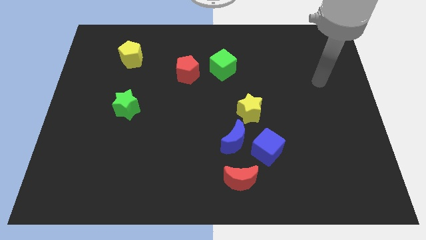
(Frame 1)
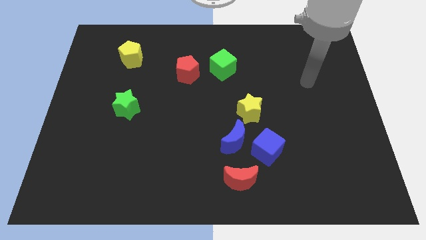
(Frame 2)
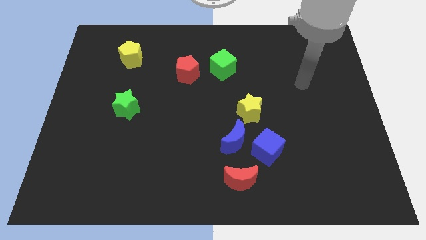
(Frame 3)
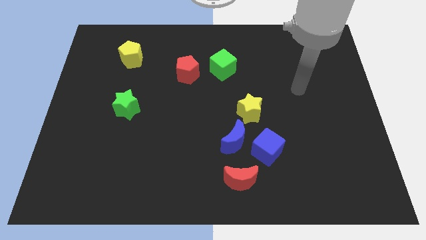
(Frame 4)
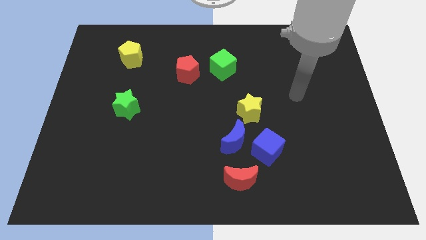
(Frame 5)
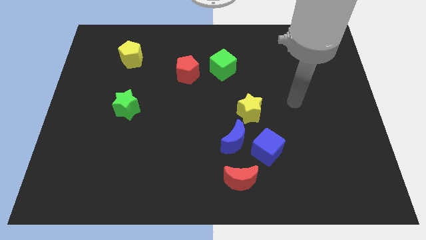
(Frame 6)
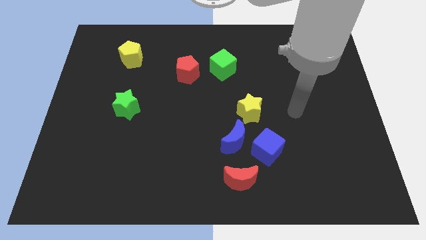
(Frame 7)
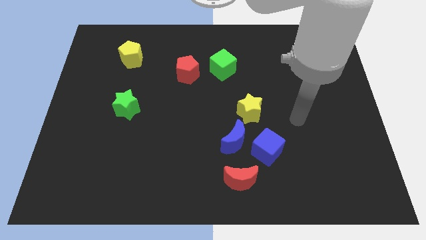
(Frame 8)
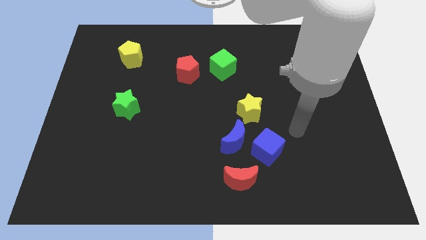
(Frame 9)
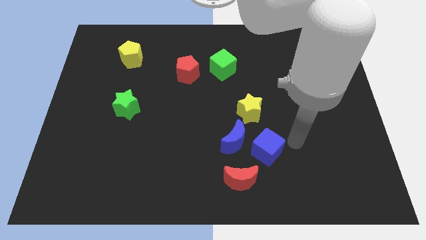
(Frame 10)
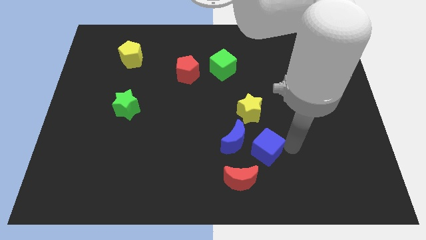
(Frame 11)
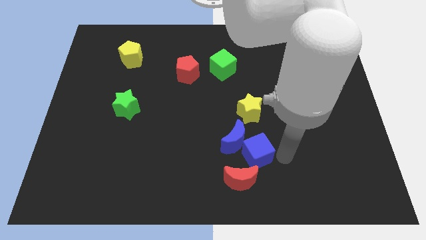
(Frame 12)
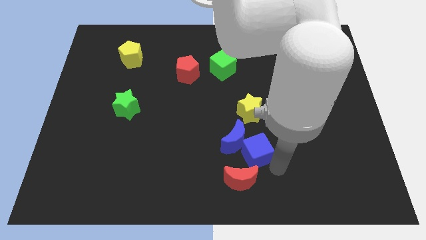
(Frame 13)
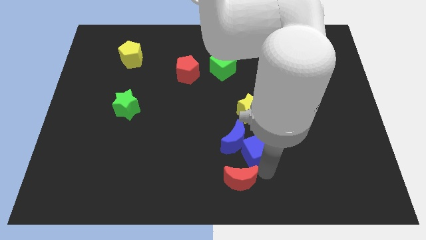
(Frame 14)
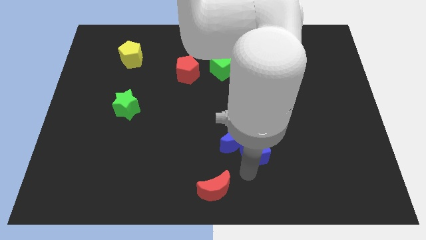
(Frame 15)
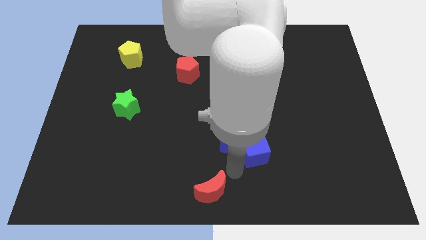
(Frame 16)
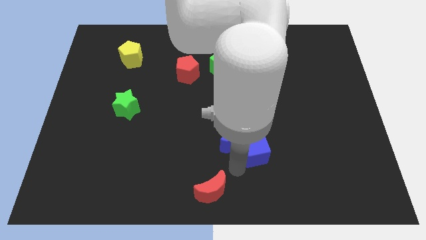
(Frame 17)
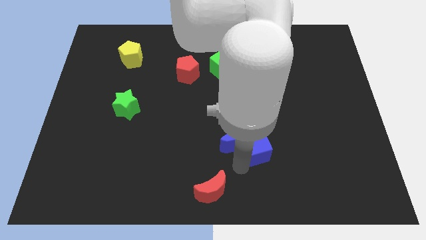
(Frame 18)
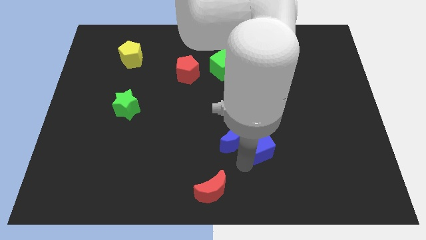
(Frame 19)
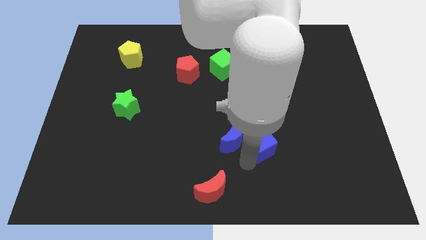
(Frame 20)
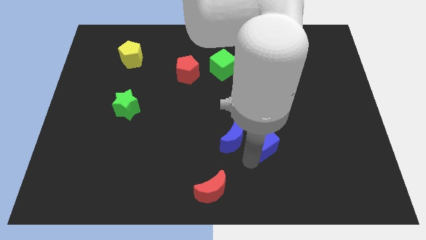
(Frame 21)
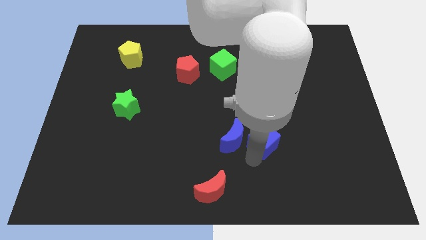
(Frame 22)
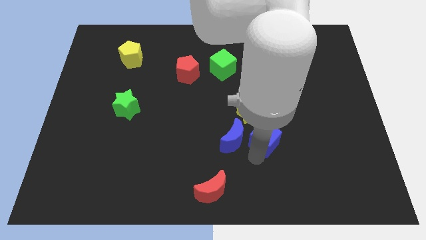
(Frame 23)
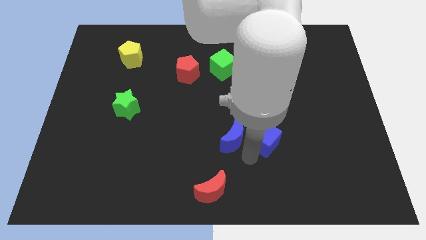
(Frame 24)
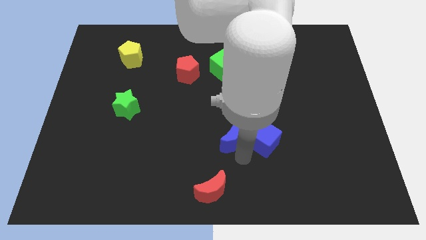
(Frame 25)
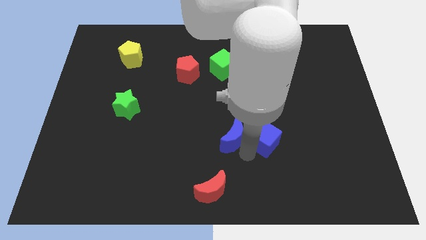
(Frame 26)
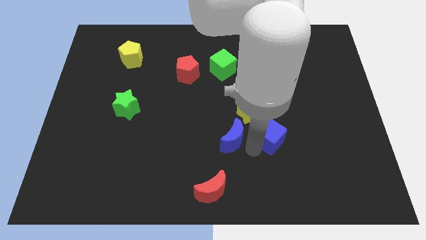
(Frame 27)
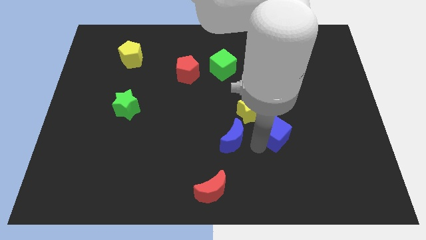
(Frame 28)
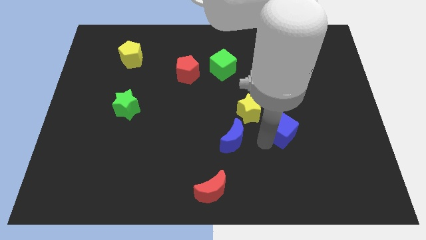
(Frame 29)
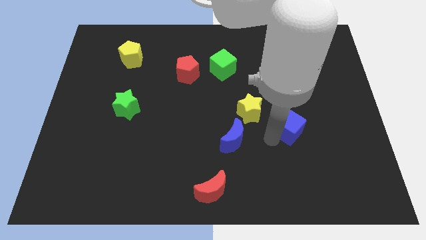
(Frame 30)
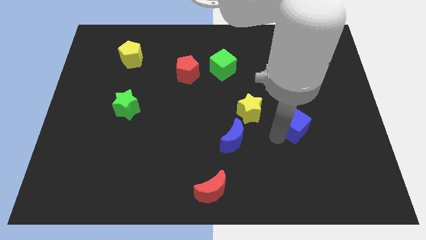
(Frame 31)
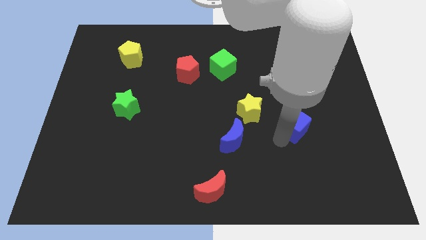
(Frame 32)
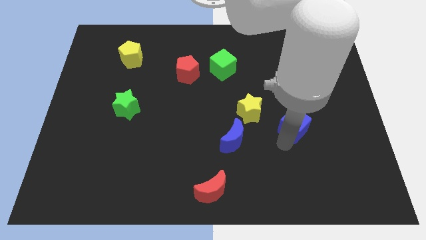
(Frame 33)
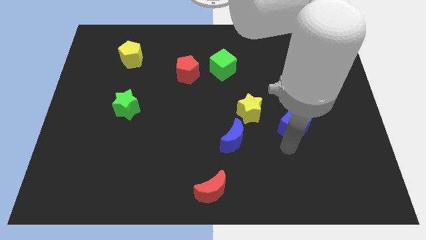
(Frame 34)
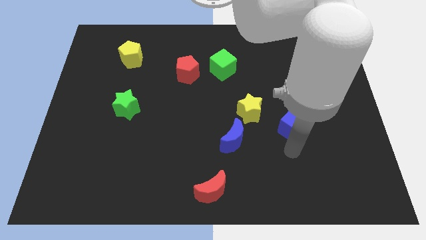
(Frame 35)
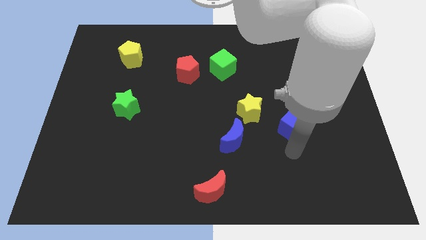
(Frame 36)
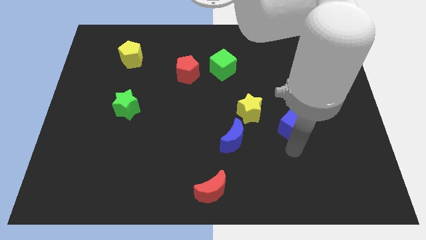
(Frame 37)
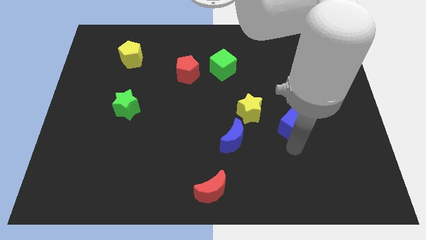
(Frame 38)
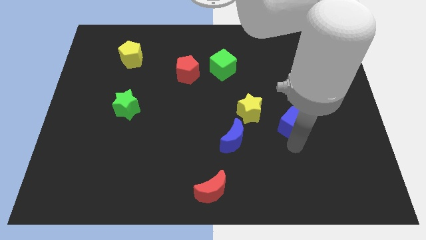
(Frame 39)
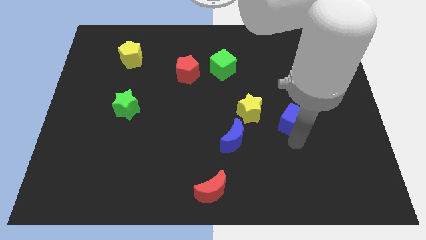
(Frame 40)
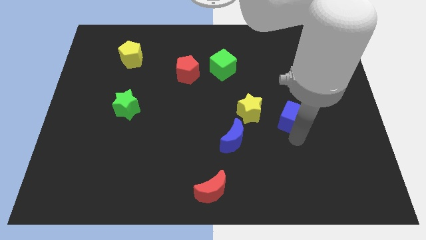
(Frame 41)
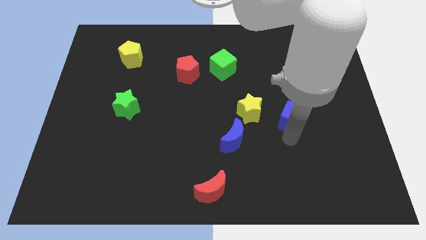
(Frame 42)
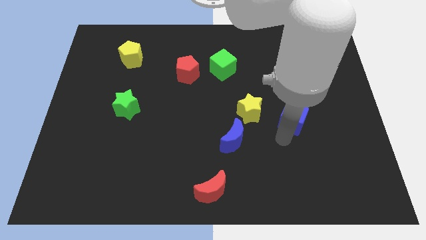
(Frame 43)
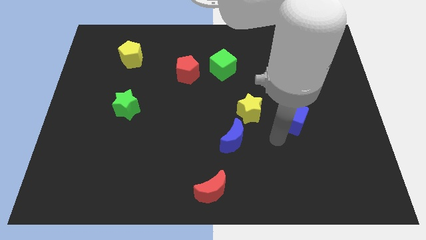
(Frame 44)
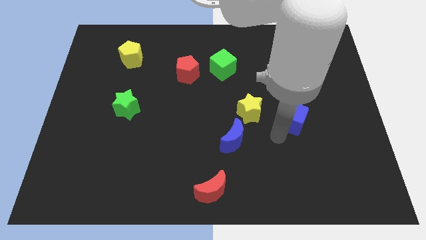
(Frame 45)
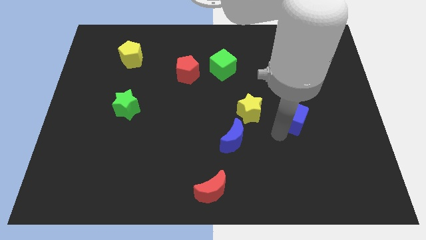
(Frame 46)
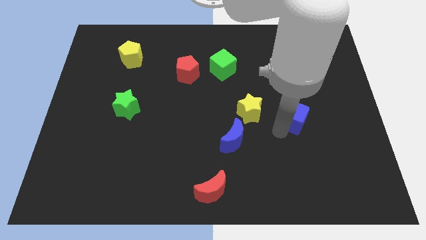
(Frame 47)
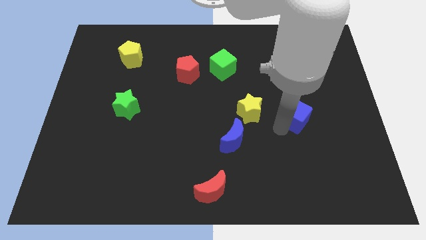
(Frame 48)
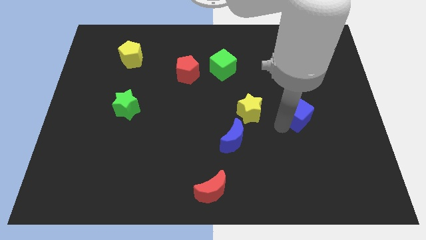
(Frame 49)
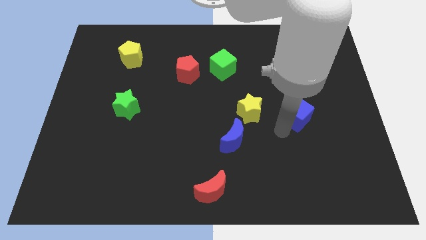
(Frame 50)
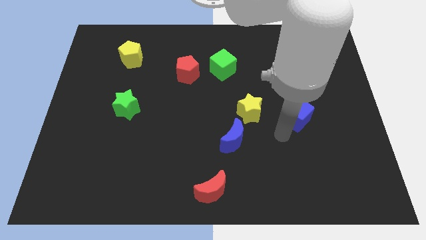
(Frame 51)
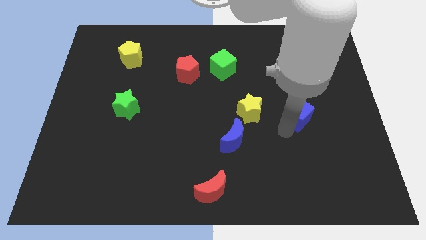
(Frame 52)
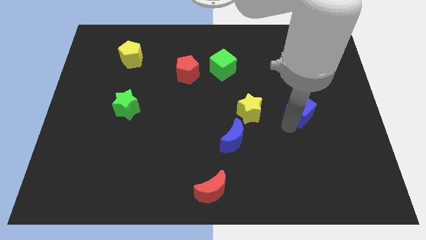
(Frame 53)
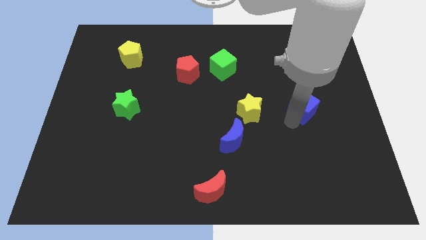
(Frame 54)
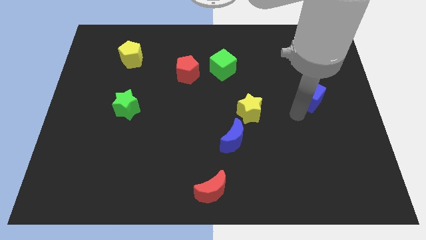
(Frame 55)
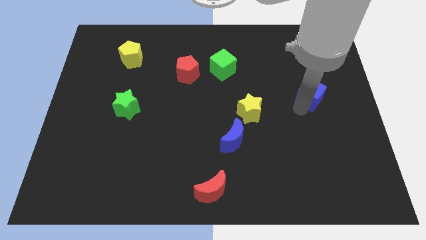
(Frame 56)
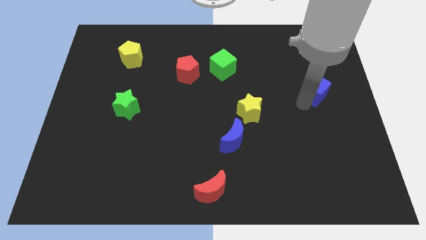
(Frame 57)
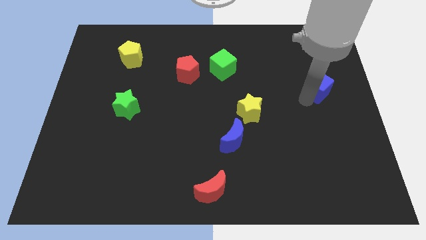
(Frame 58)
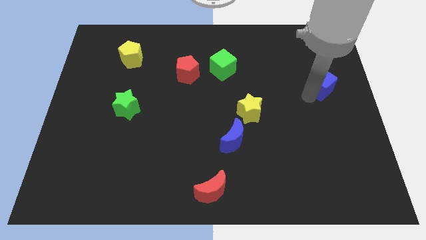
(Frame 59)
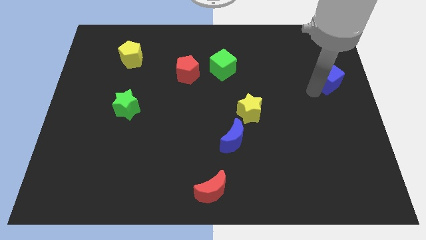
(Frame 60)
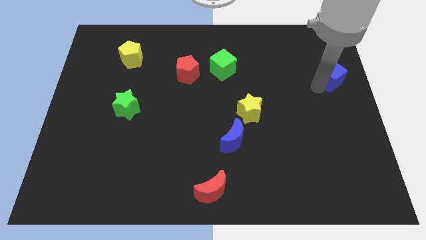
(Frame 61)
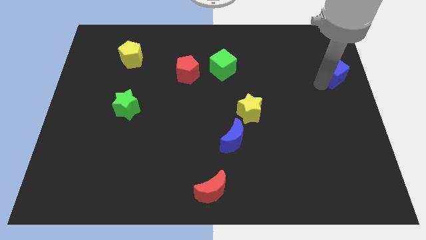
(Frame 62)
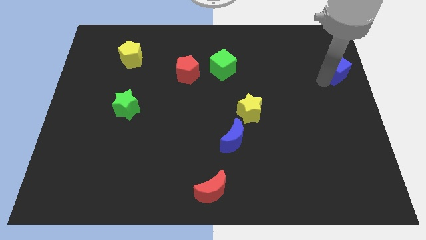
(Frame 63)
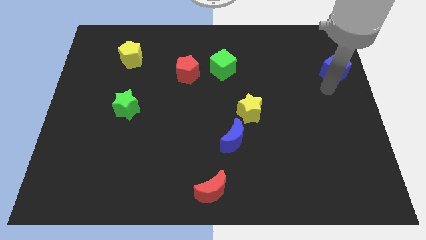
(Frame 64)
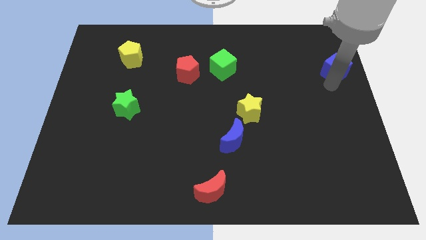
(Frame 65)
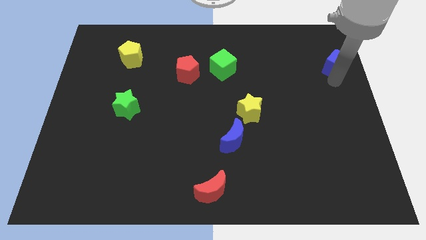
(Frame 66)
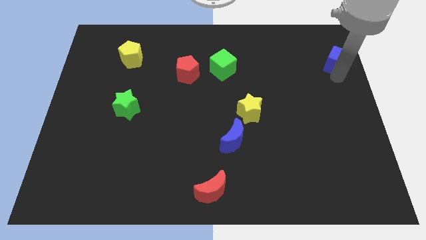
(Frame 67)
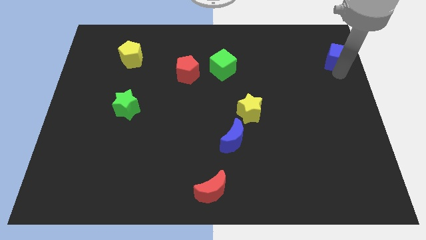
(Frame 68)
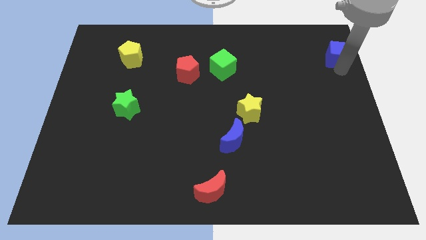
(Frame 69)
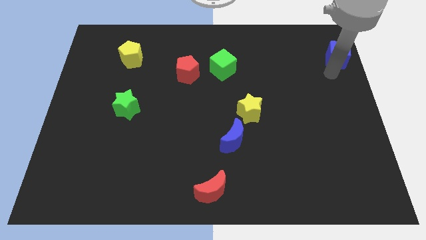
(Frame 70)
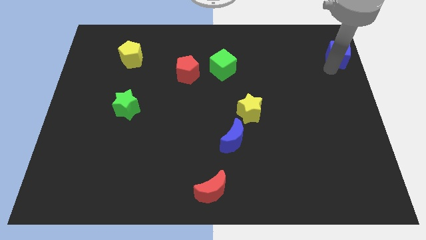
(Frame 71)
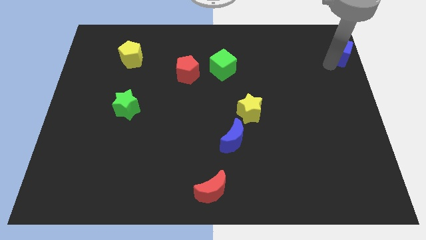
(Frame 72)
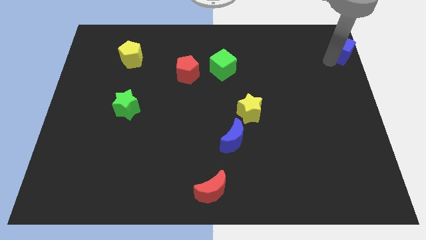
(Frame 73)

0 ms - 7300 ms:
push the blue cube to the top right of the board

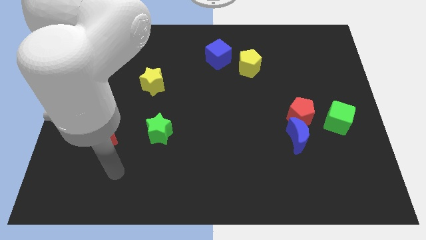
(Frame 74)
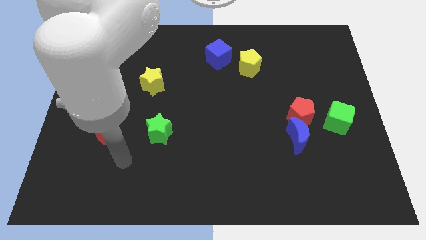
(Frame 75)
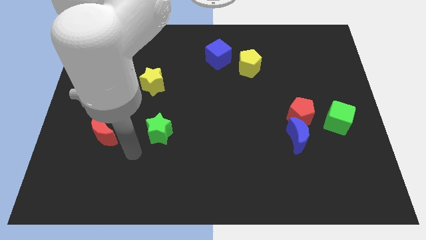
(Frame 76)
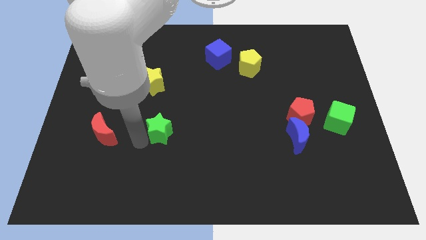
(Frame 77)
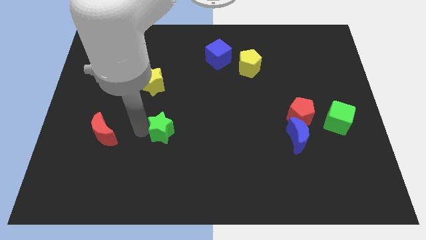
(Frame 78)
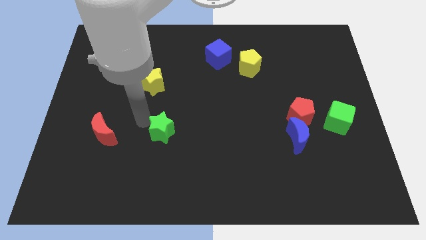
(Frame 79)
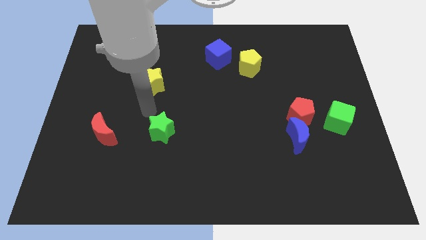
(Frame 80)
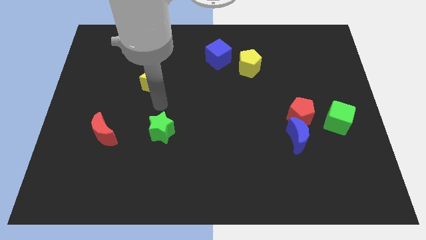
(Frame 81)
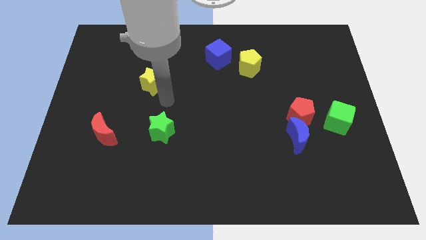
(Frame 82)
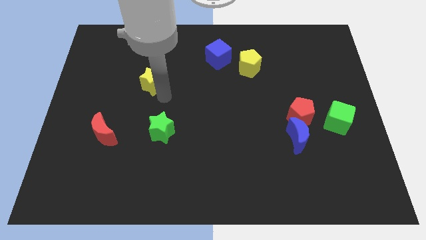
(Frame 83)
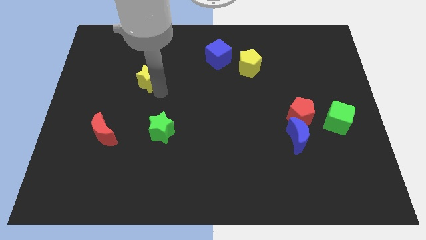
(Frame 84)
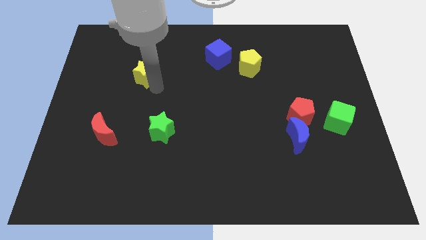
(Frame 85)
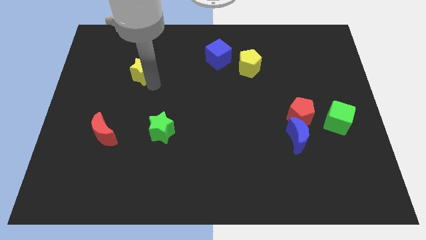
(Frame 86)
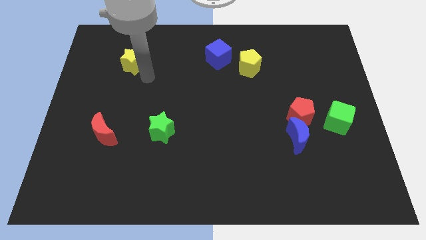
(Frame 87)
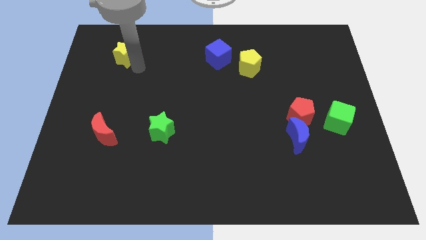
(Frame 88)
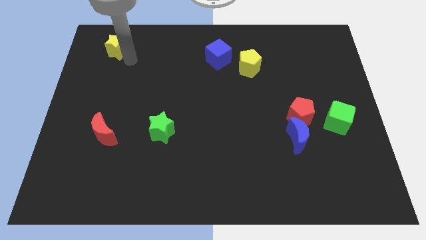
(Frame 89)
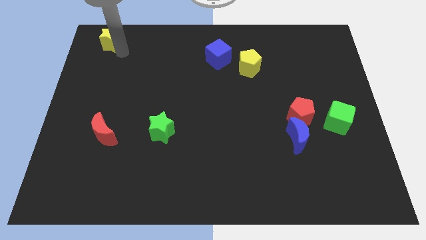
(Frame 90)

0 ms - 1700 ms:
put the yellow star to the top left
